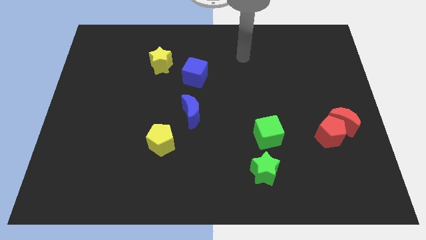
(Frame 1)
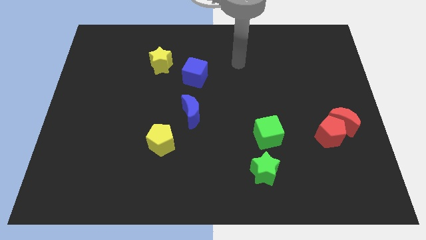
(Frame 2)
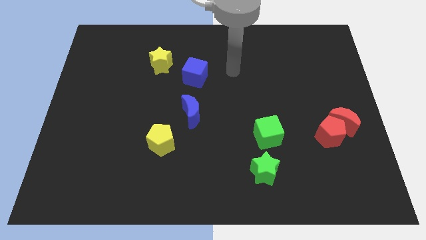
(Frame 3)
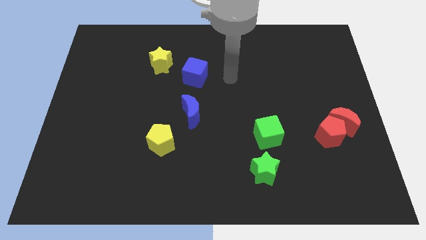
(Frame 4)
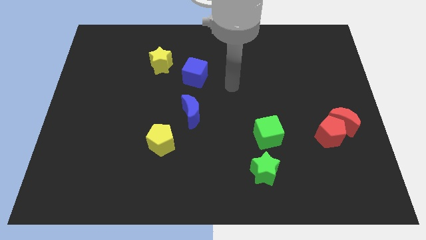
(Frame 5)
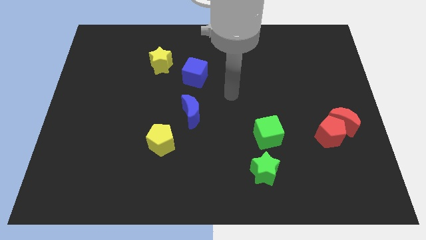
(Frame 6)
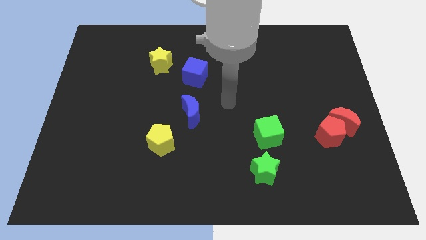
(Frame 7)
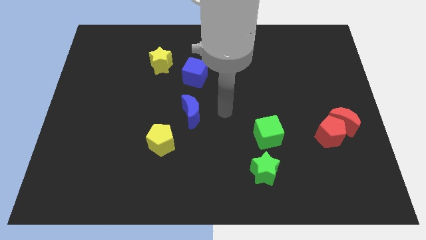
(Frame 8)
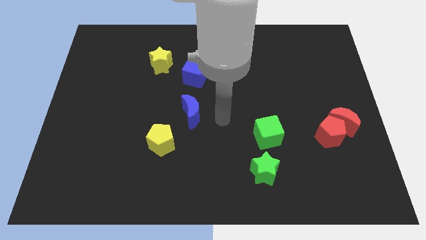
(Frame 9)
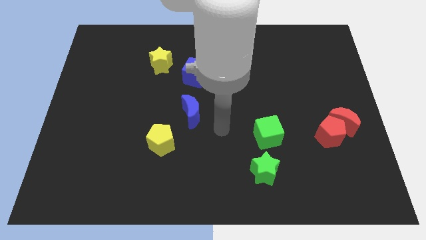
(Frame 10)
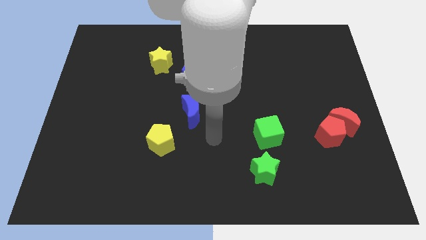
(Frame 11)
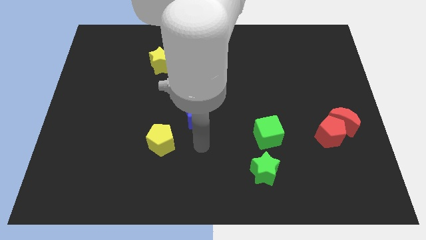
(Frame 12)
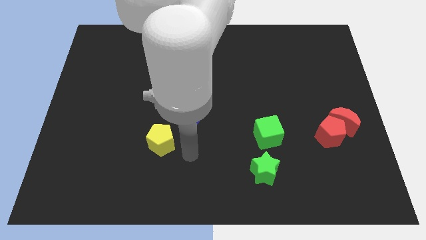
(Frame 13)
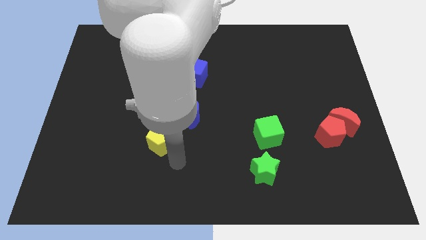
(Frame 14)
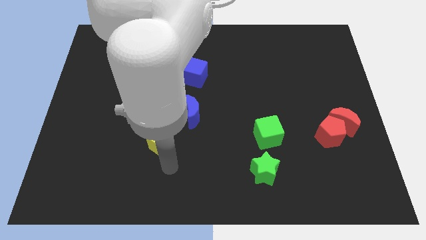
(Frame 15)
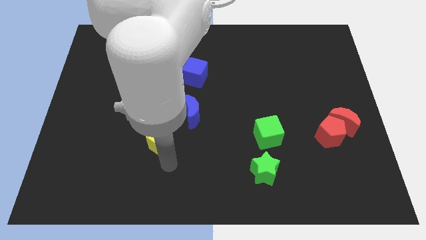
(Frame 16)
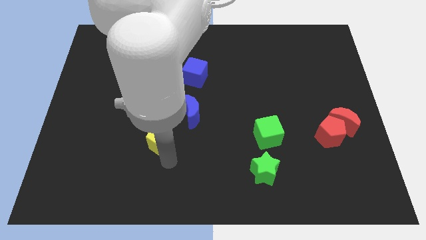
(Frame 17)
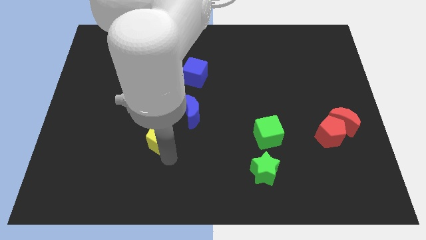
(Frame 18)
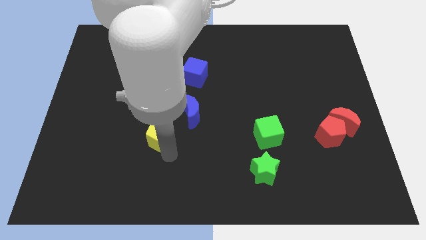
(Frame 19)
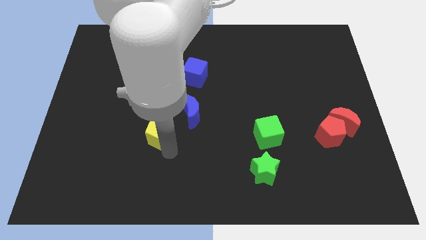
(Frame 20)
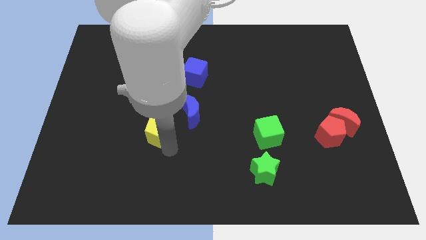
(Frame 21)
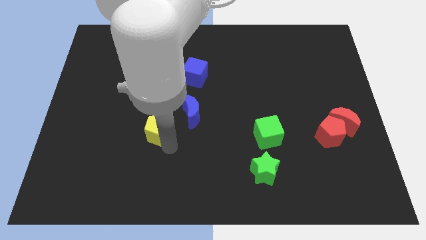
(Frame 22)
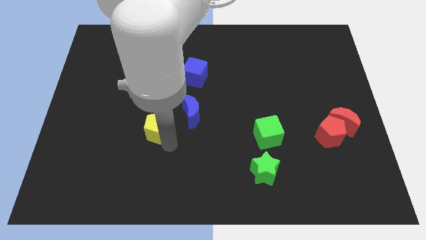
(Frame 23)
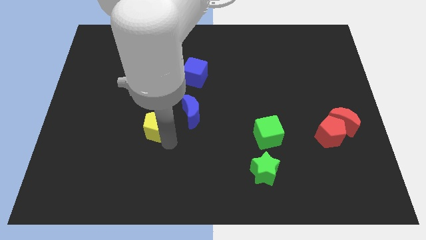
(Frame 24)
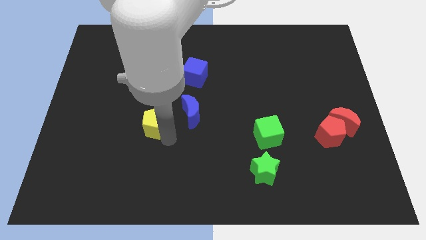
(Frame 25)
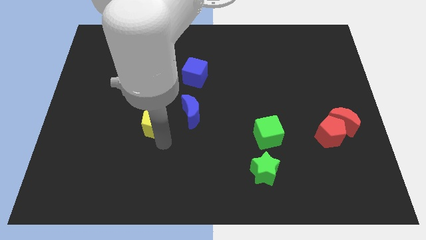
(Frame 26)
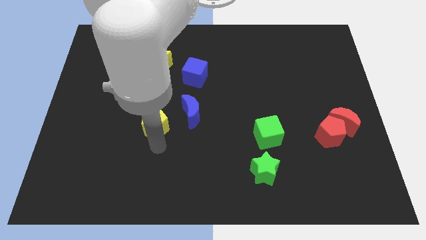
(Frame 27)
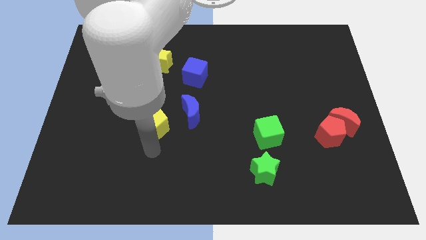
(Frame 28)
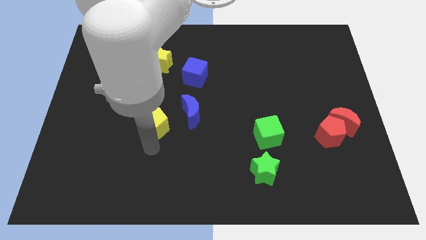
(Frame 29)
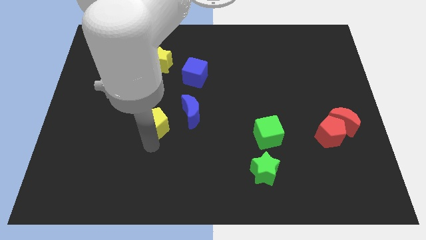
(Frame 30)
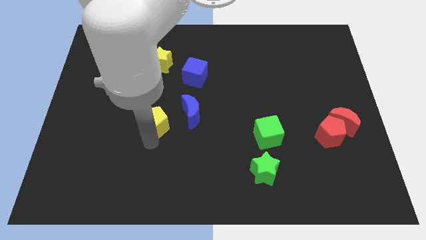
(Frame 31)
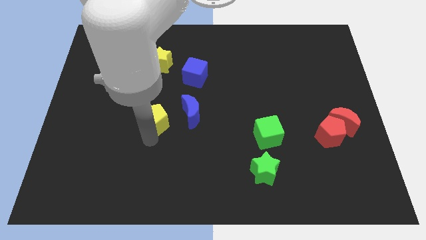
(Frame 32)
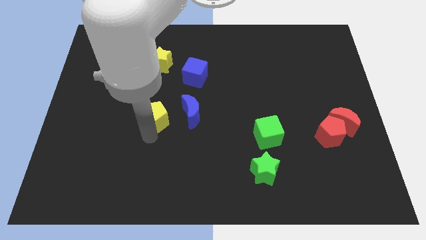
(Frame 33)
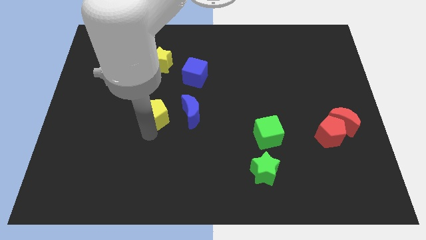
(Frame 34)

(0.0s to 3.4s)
slightly move the yellow pentagon up

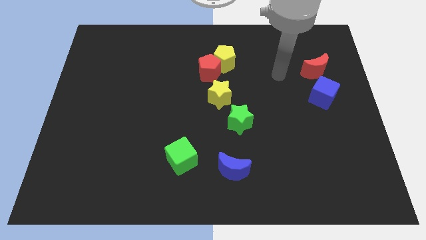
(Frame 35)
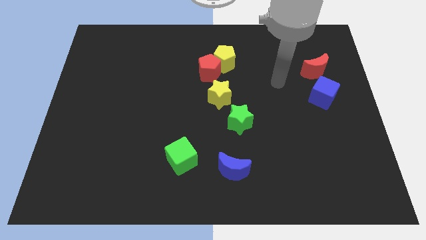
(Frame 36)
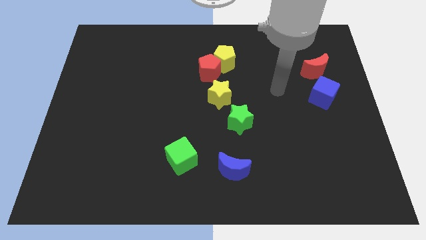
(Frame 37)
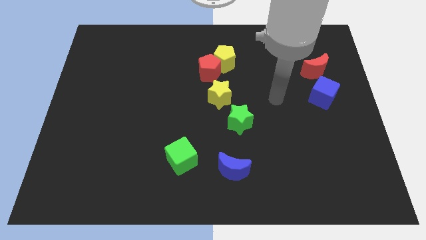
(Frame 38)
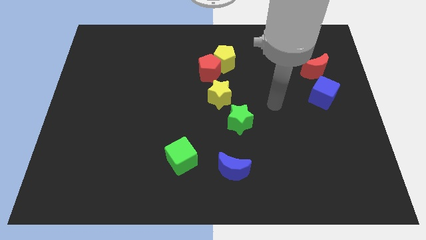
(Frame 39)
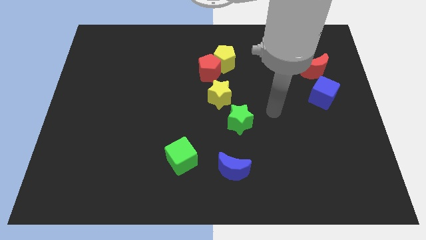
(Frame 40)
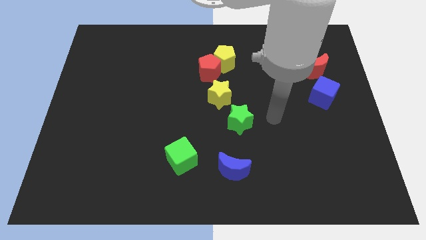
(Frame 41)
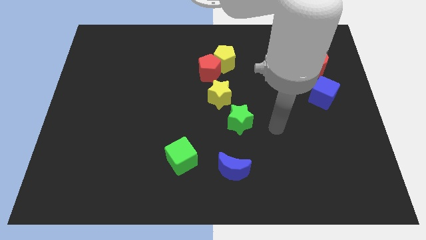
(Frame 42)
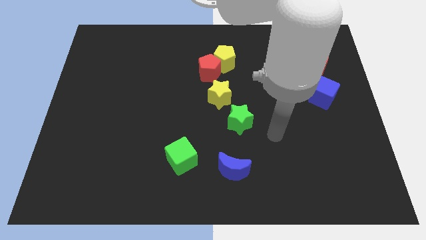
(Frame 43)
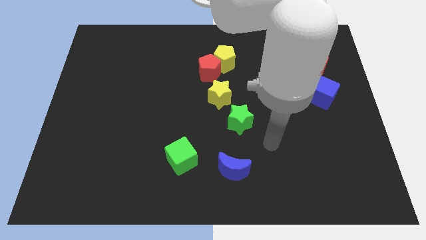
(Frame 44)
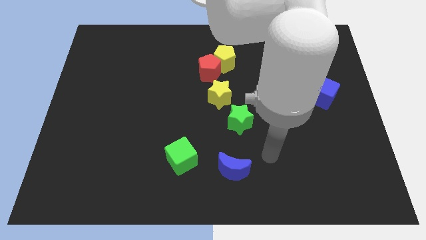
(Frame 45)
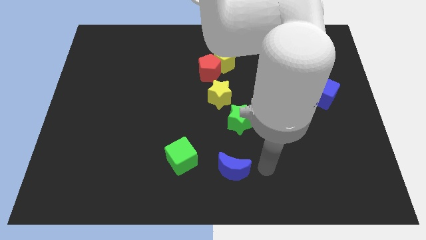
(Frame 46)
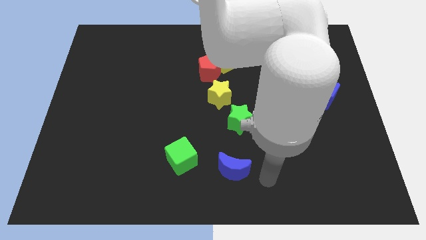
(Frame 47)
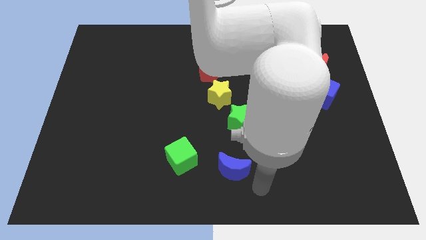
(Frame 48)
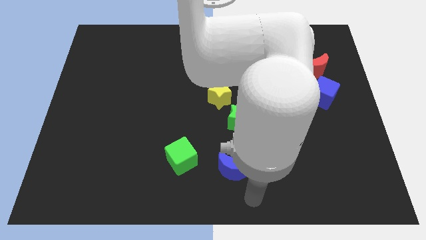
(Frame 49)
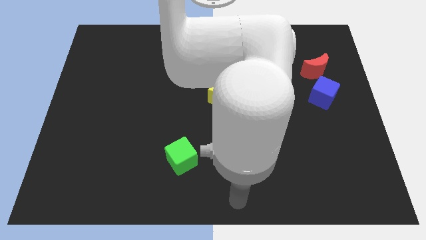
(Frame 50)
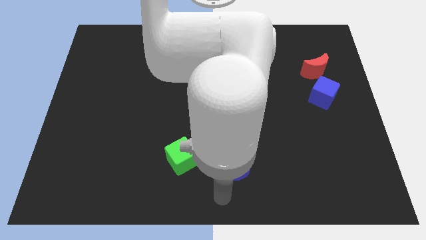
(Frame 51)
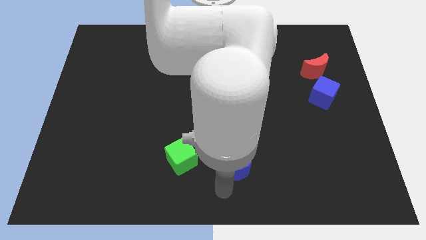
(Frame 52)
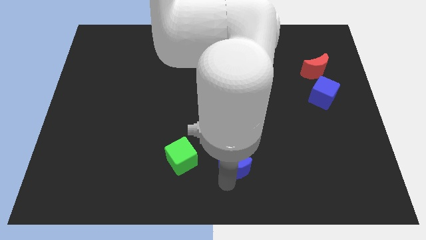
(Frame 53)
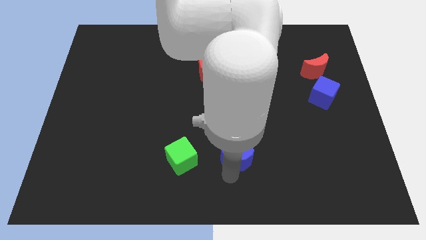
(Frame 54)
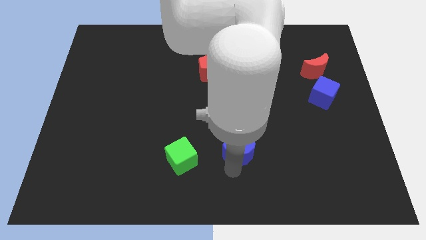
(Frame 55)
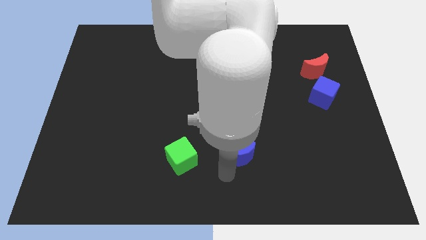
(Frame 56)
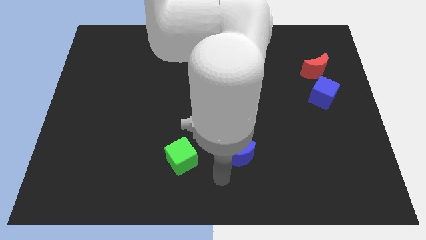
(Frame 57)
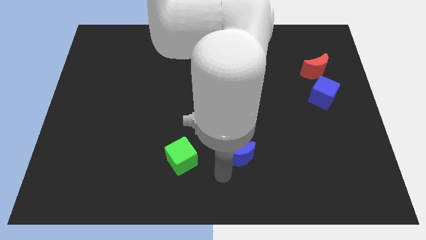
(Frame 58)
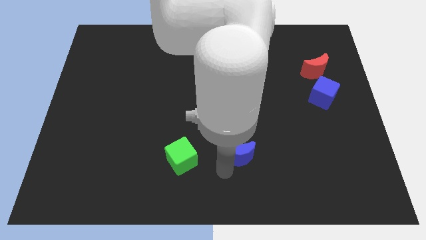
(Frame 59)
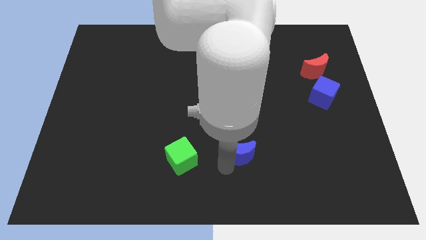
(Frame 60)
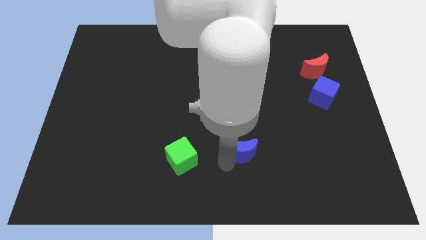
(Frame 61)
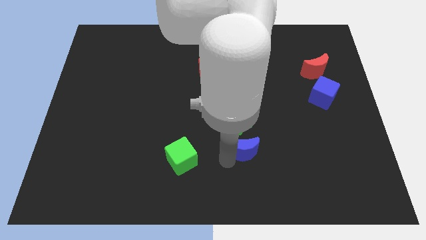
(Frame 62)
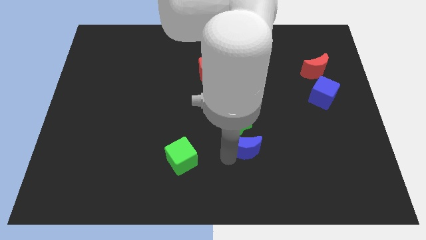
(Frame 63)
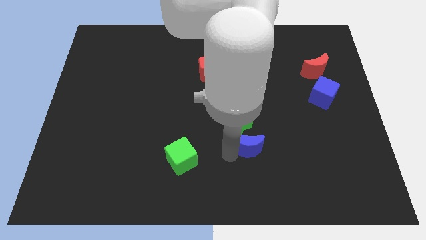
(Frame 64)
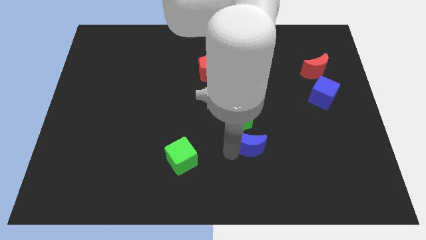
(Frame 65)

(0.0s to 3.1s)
slide the blue moon upwards and right a little bit

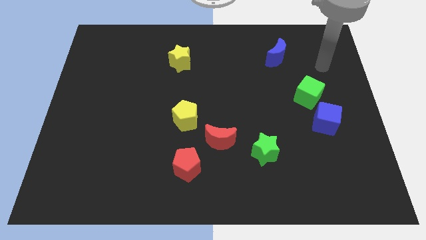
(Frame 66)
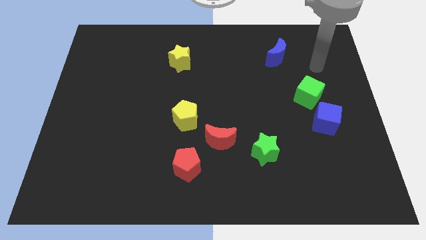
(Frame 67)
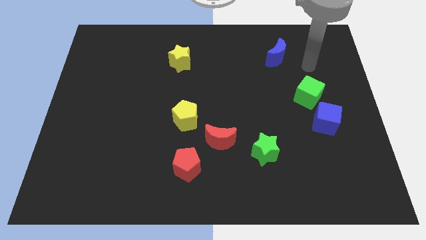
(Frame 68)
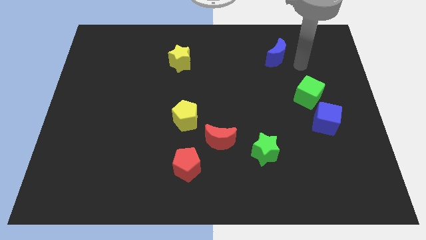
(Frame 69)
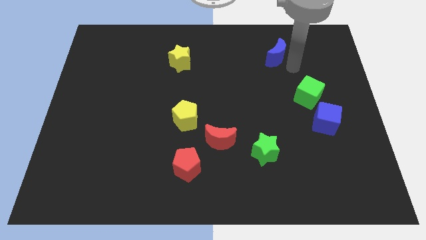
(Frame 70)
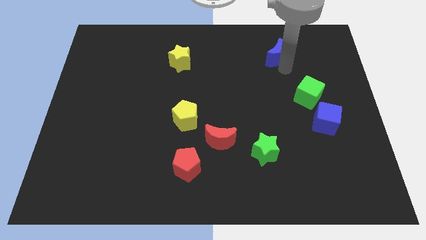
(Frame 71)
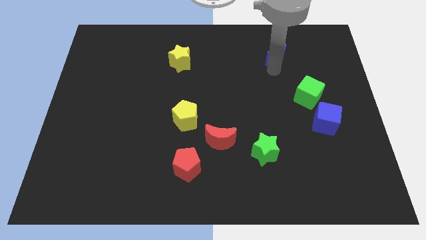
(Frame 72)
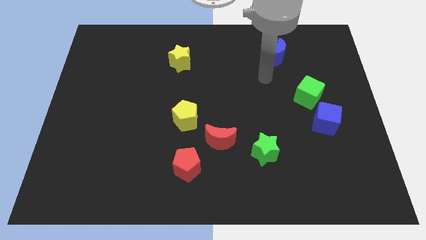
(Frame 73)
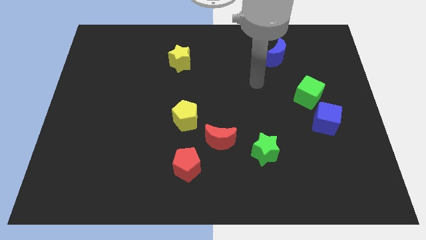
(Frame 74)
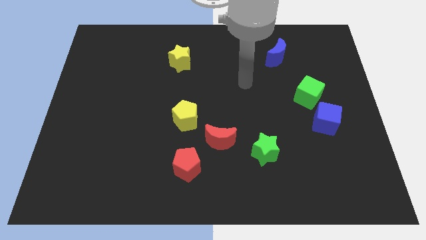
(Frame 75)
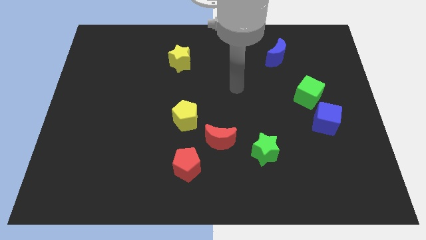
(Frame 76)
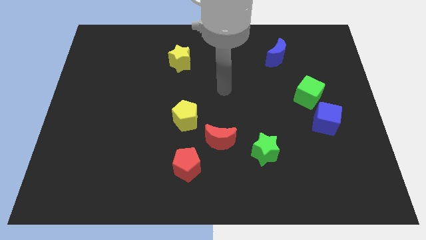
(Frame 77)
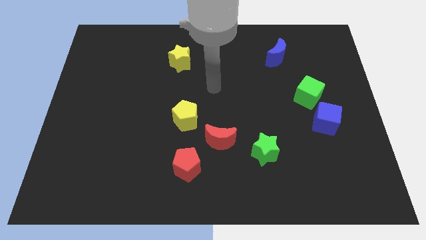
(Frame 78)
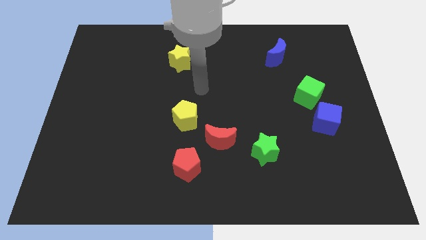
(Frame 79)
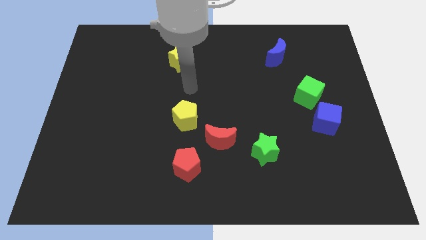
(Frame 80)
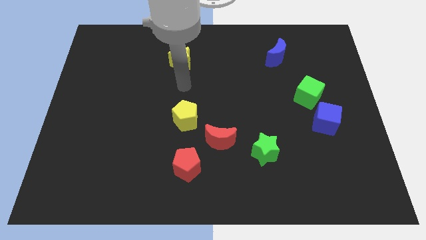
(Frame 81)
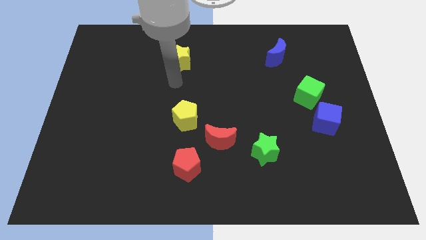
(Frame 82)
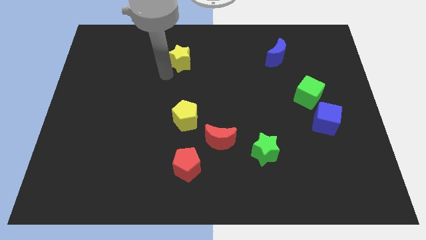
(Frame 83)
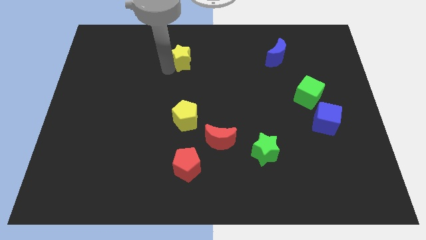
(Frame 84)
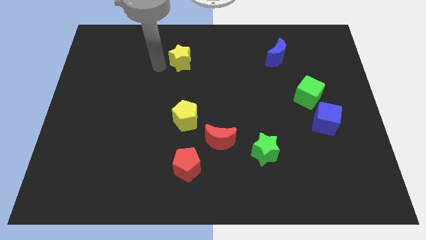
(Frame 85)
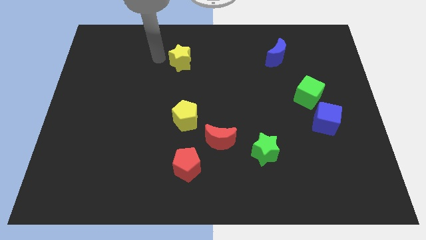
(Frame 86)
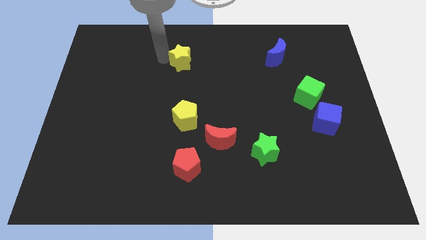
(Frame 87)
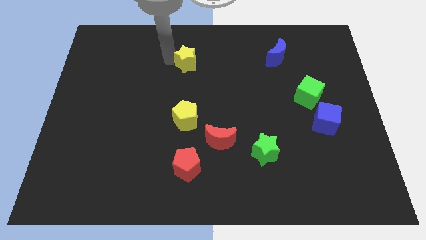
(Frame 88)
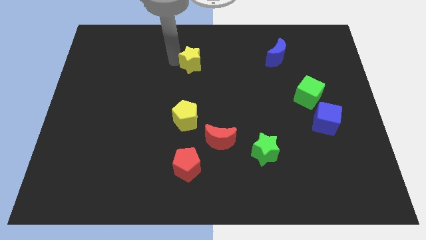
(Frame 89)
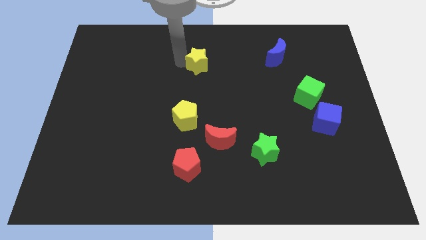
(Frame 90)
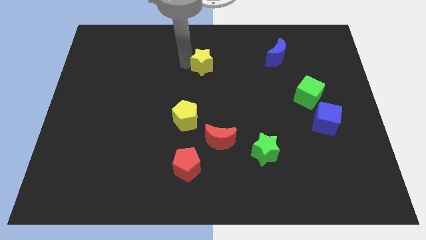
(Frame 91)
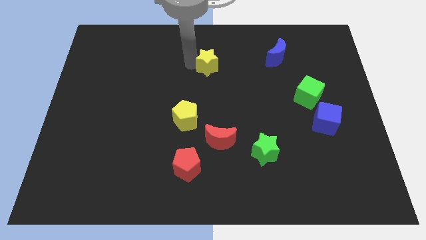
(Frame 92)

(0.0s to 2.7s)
push the yellow star a bit to the right
